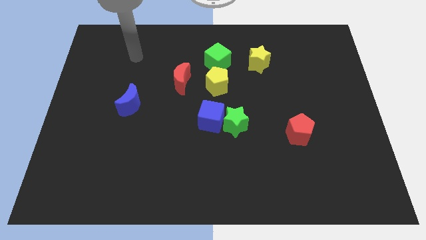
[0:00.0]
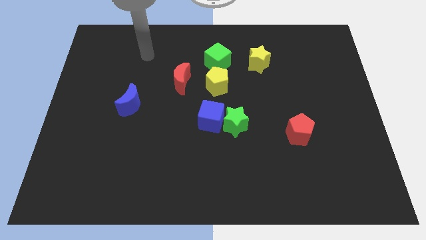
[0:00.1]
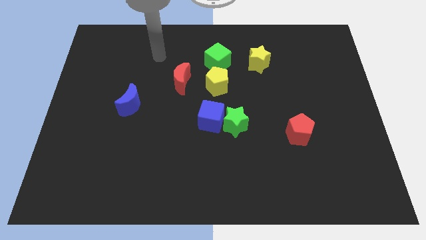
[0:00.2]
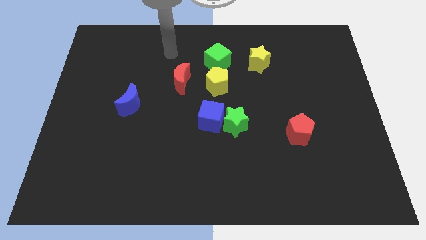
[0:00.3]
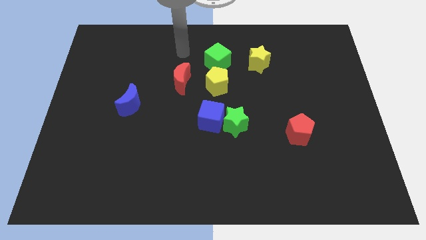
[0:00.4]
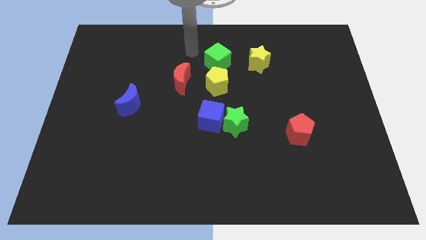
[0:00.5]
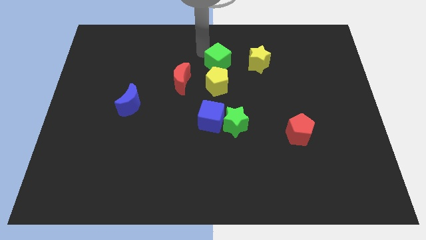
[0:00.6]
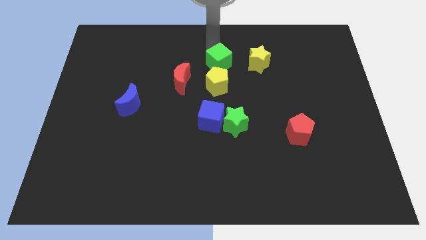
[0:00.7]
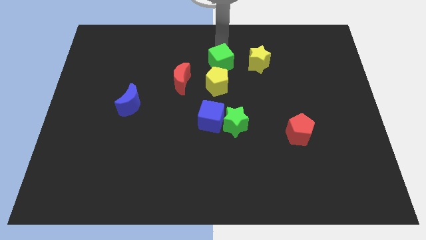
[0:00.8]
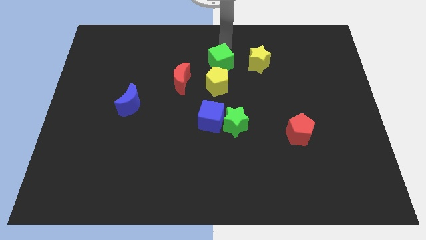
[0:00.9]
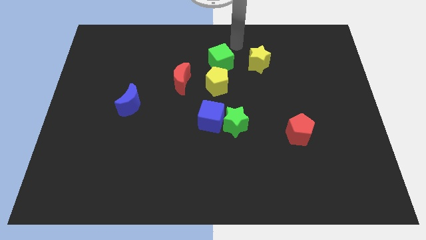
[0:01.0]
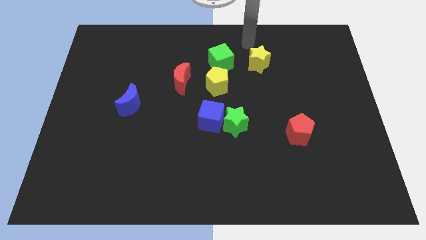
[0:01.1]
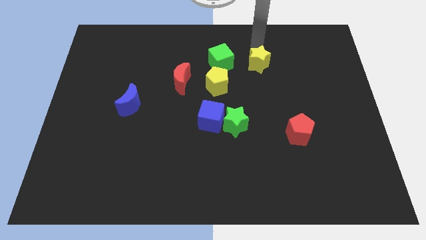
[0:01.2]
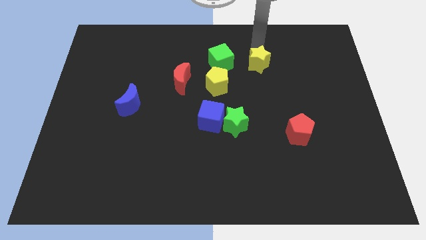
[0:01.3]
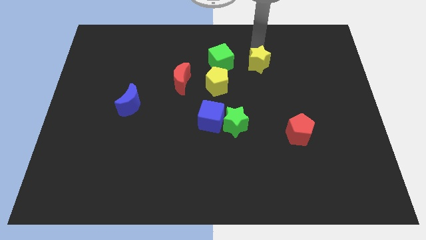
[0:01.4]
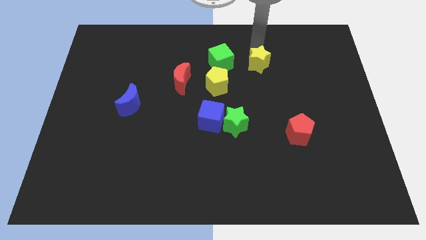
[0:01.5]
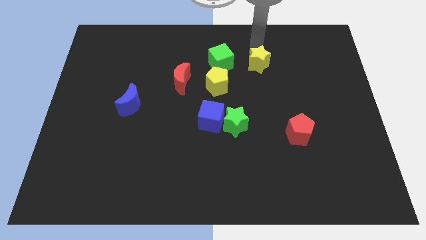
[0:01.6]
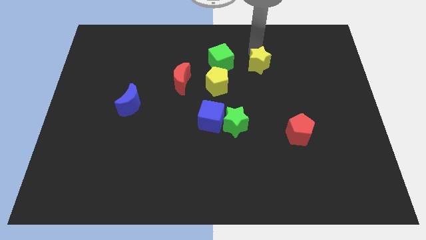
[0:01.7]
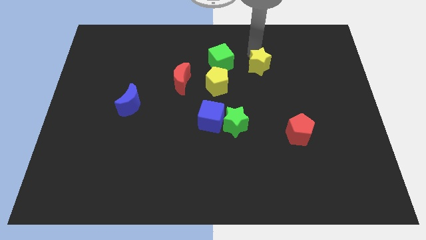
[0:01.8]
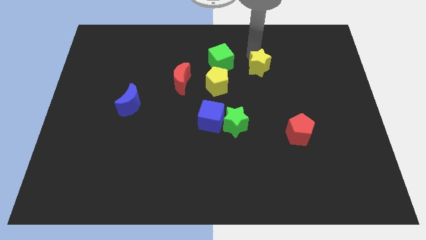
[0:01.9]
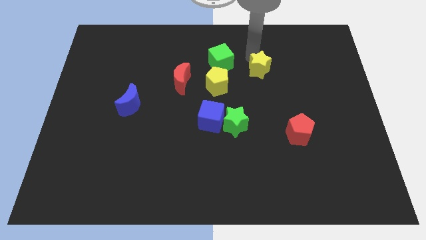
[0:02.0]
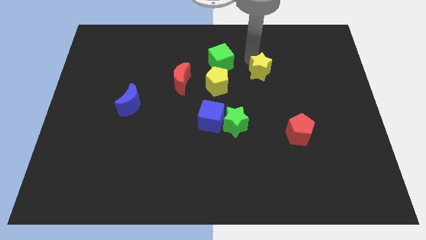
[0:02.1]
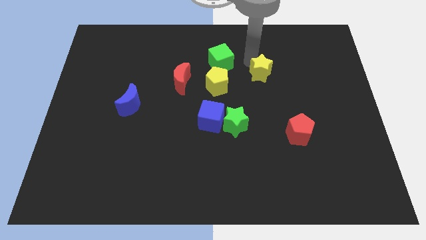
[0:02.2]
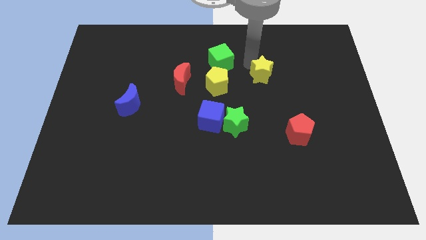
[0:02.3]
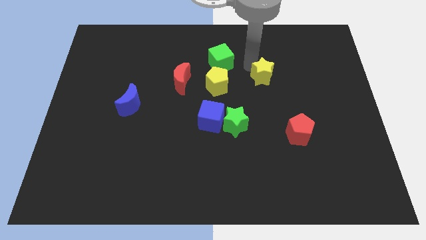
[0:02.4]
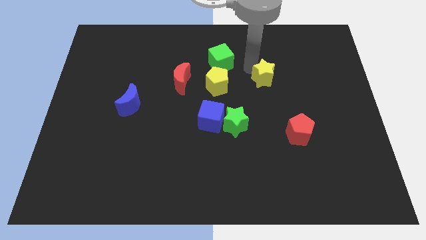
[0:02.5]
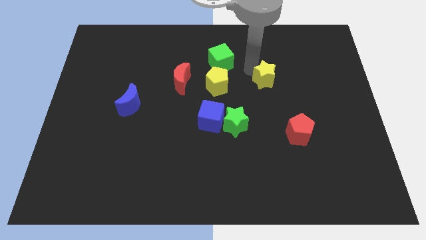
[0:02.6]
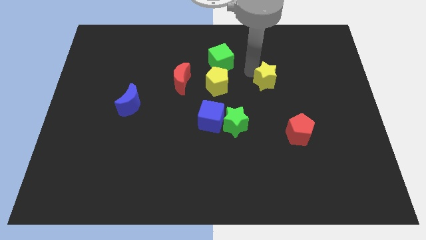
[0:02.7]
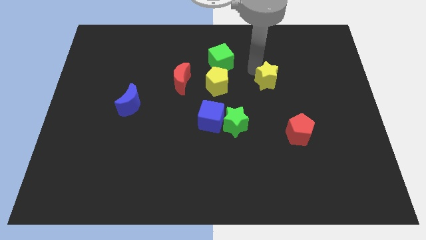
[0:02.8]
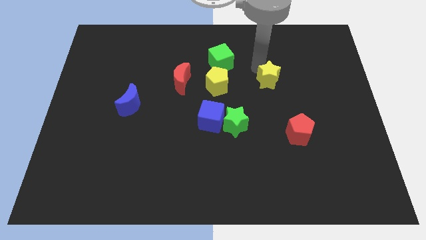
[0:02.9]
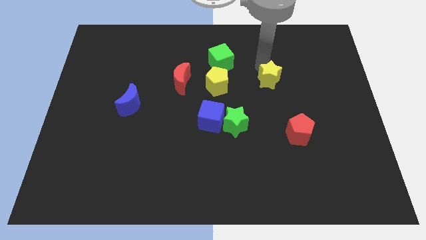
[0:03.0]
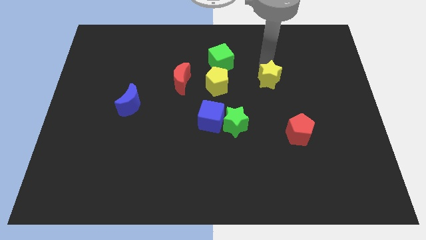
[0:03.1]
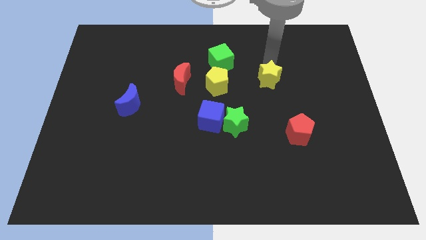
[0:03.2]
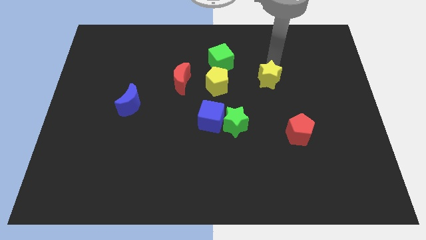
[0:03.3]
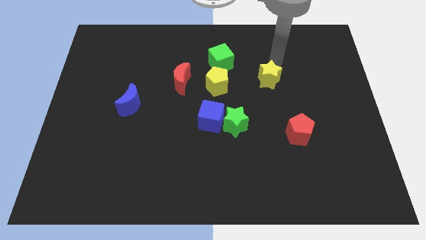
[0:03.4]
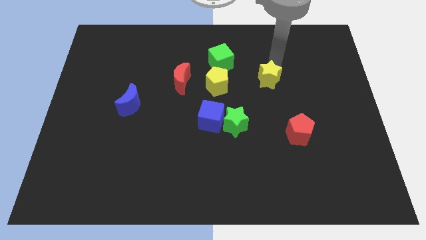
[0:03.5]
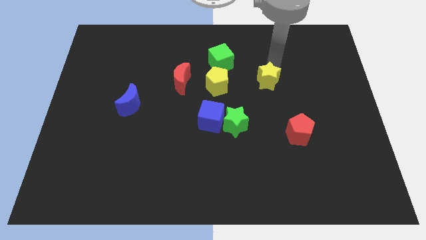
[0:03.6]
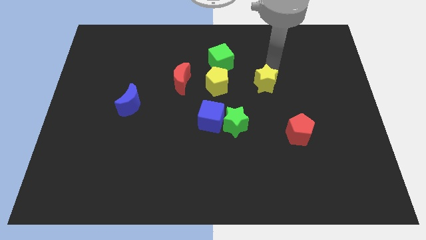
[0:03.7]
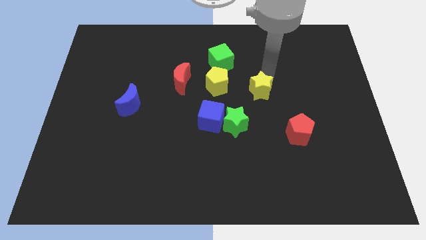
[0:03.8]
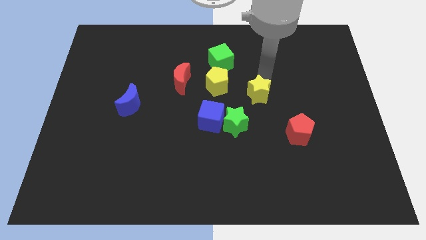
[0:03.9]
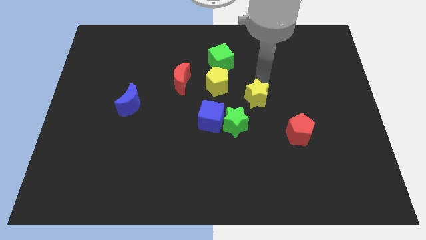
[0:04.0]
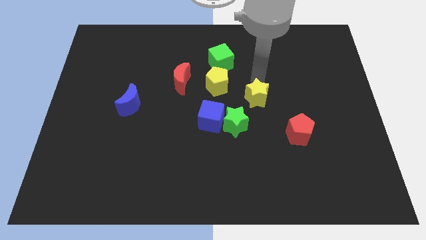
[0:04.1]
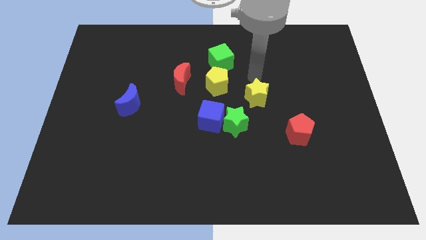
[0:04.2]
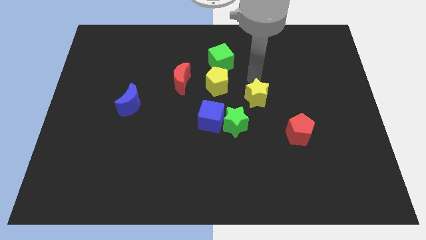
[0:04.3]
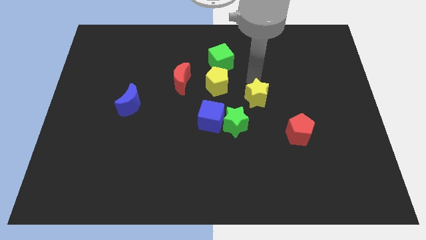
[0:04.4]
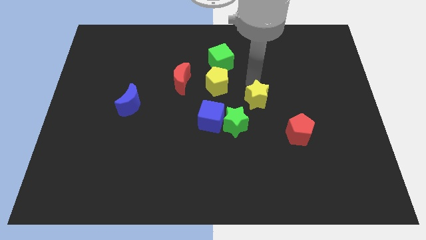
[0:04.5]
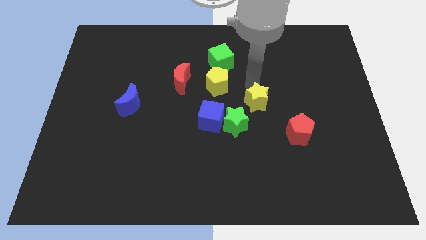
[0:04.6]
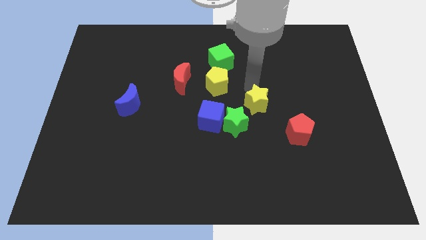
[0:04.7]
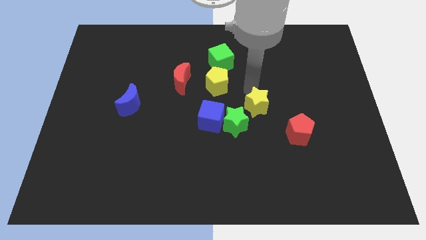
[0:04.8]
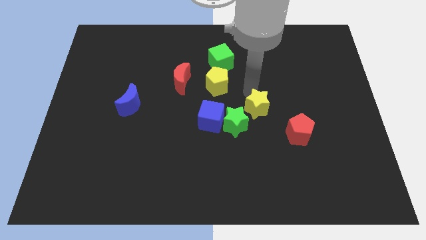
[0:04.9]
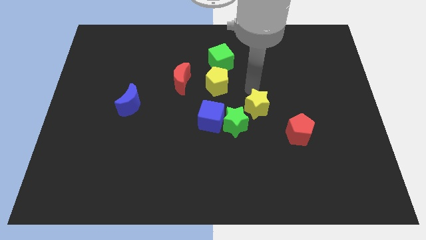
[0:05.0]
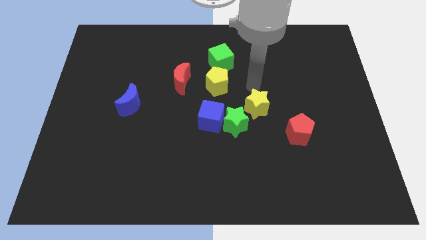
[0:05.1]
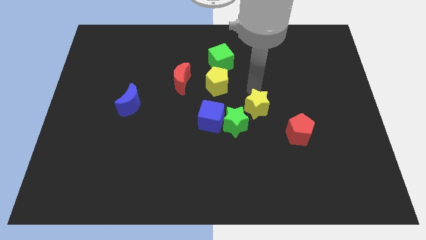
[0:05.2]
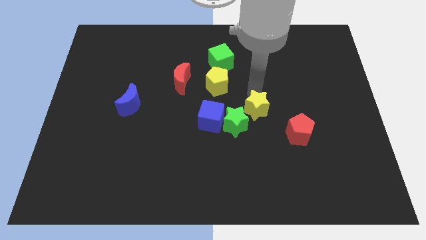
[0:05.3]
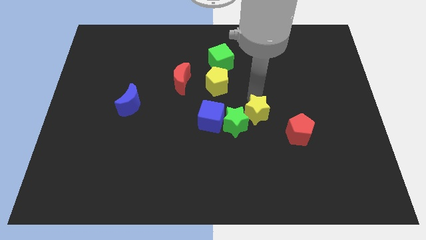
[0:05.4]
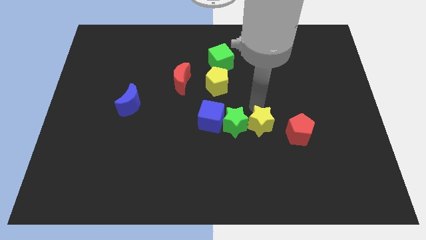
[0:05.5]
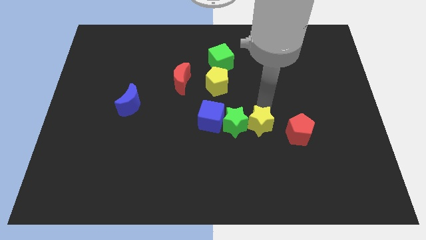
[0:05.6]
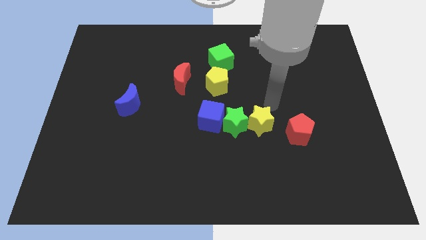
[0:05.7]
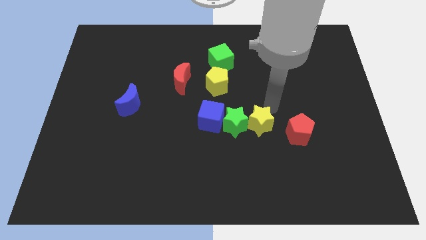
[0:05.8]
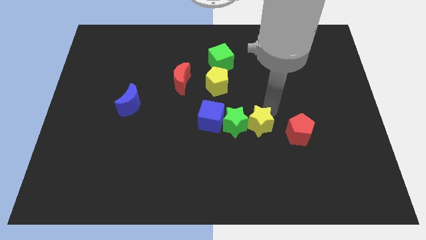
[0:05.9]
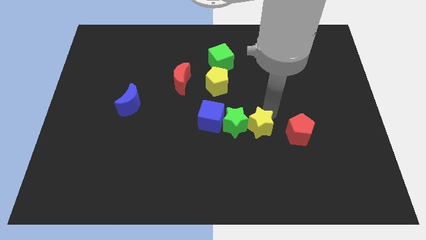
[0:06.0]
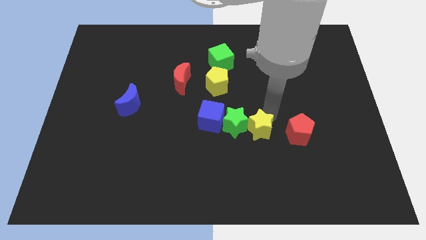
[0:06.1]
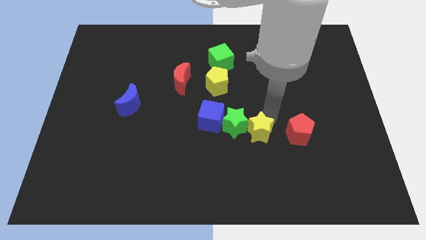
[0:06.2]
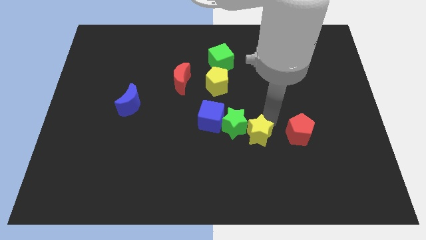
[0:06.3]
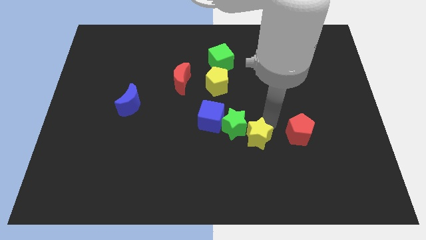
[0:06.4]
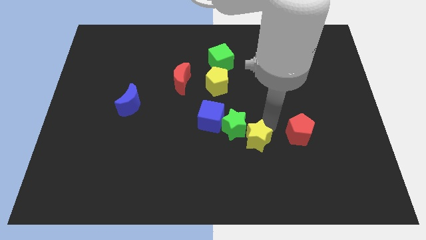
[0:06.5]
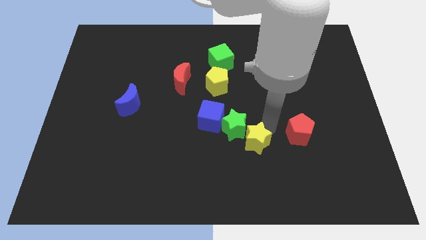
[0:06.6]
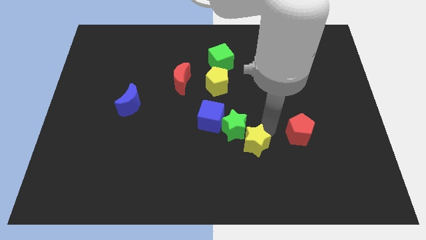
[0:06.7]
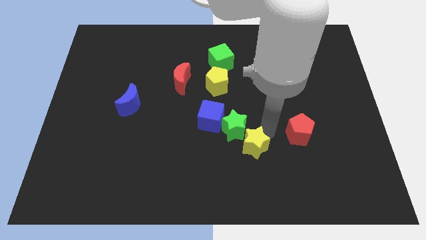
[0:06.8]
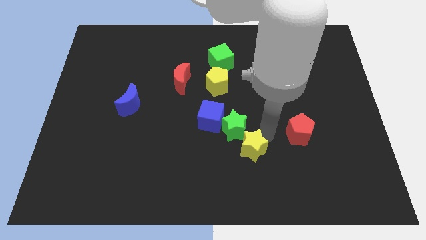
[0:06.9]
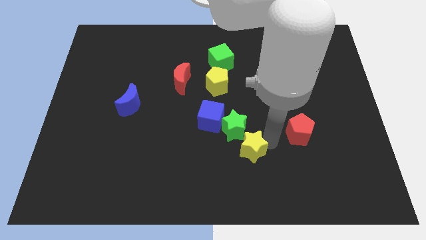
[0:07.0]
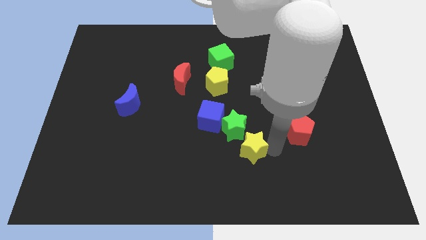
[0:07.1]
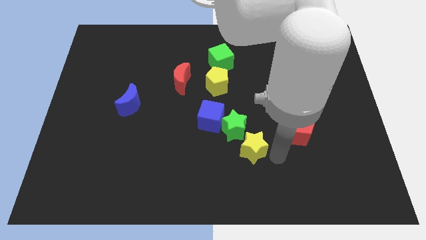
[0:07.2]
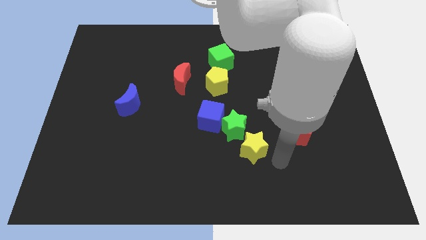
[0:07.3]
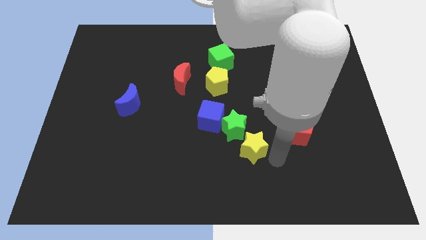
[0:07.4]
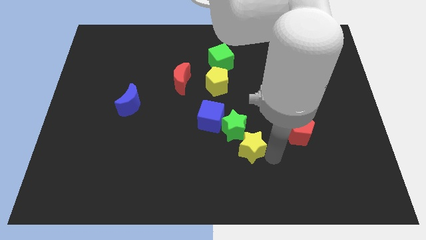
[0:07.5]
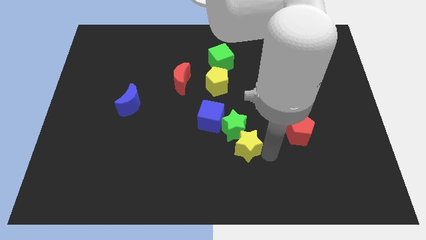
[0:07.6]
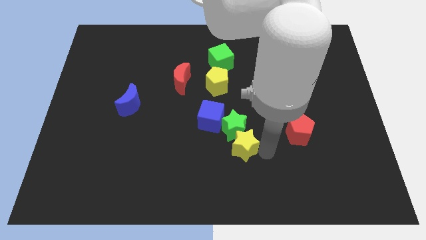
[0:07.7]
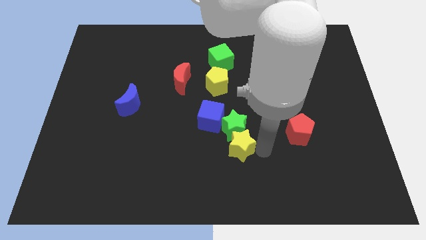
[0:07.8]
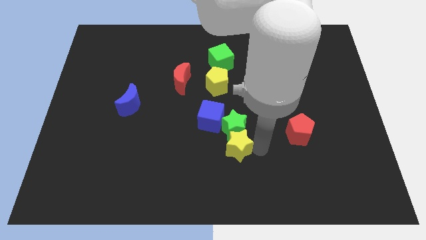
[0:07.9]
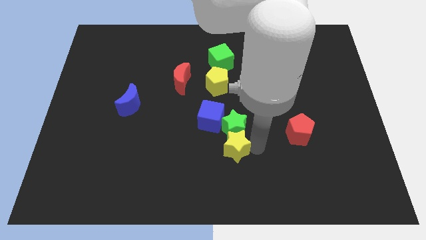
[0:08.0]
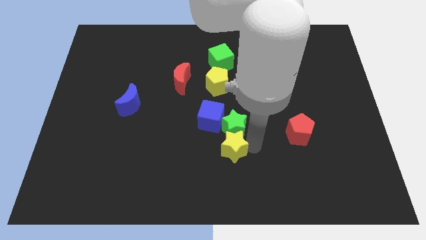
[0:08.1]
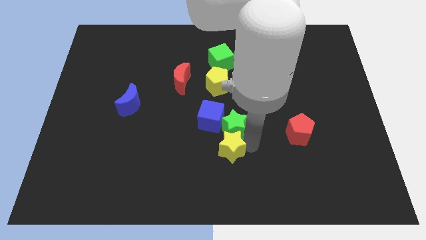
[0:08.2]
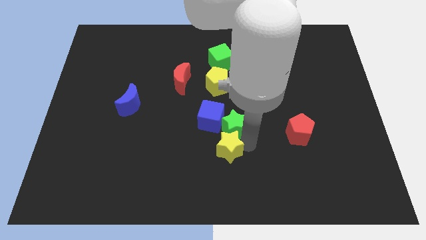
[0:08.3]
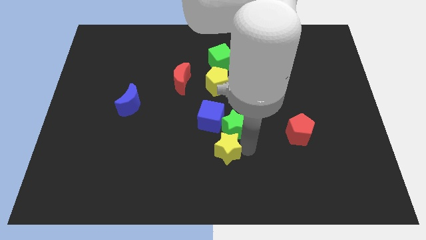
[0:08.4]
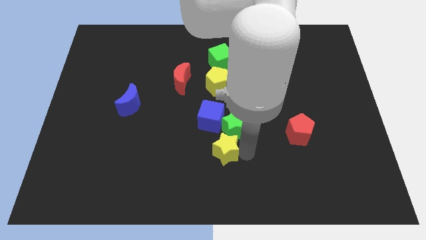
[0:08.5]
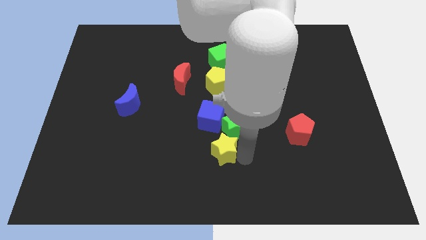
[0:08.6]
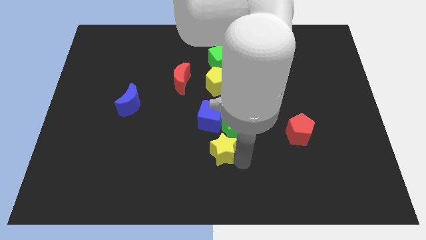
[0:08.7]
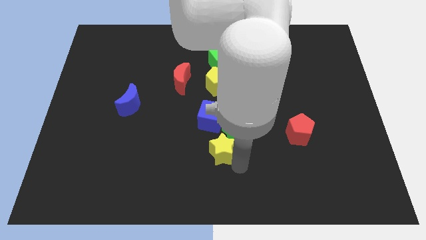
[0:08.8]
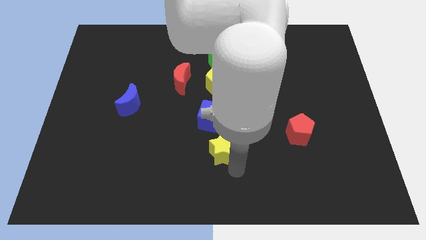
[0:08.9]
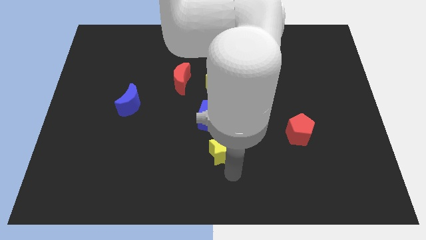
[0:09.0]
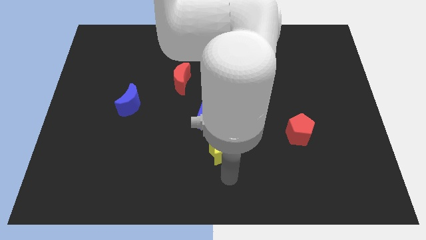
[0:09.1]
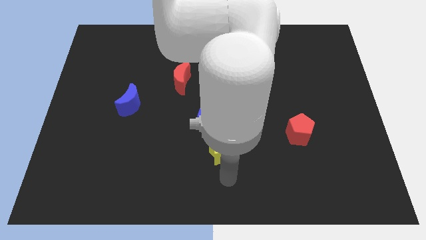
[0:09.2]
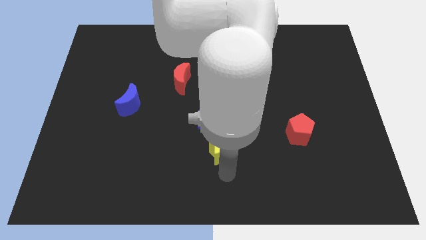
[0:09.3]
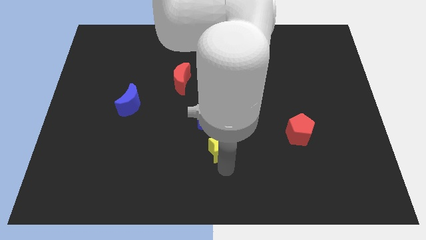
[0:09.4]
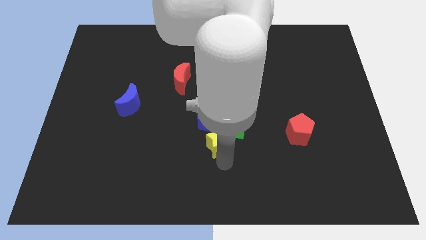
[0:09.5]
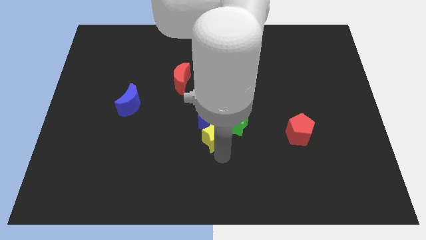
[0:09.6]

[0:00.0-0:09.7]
move the yellow star below the yellow pentagon
